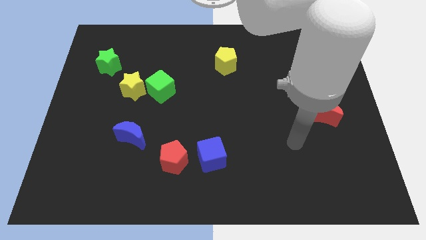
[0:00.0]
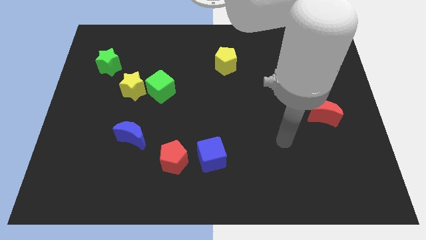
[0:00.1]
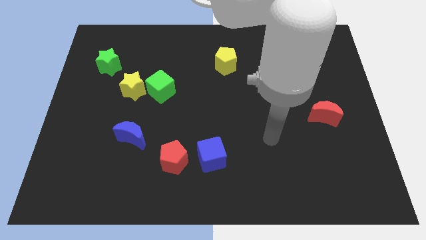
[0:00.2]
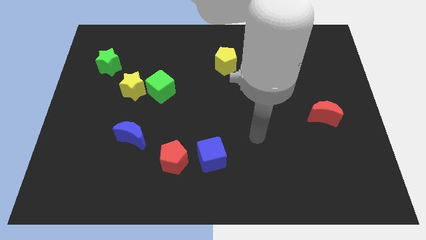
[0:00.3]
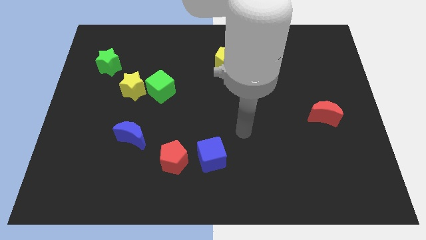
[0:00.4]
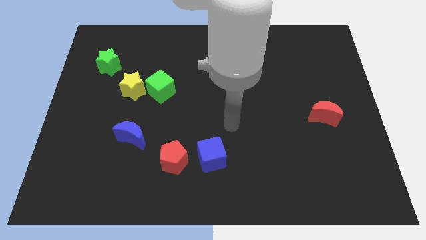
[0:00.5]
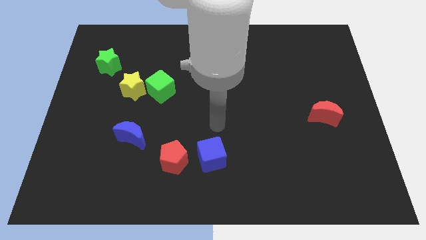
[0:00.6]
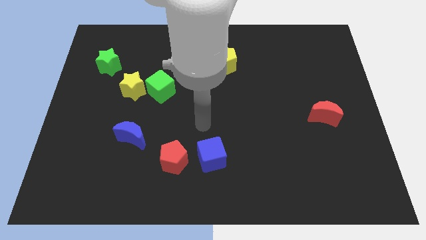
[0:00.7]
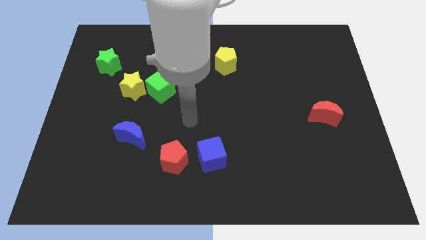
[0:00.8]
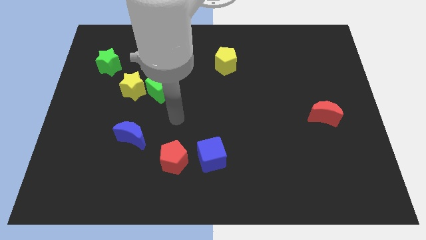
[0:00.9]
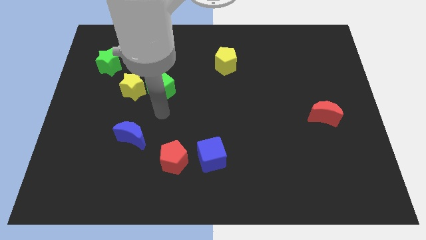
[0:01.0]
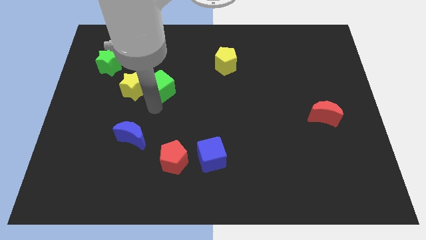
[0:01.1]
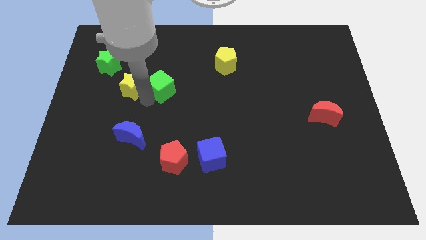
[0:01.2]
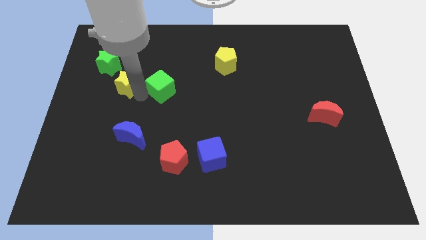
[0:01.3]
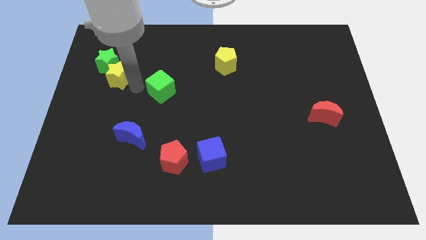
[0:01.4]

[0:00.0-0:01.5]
separate the green cube from the yellow star

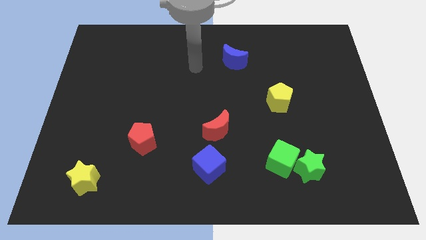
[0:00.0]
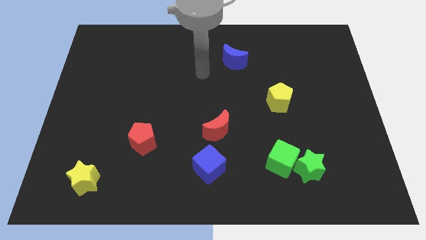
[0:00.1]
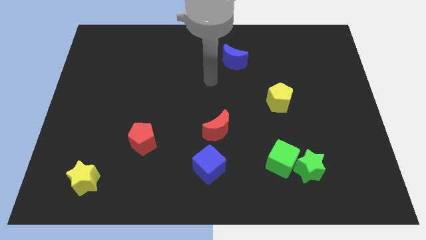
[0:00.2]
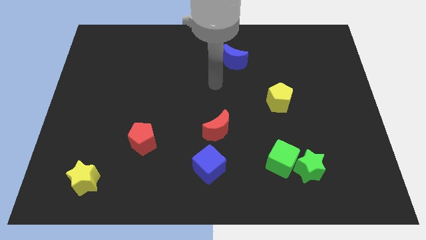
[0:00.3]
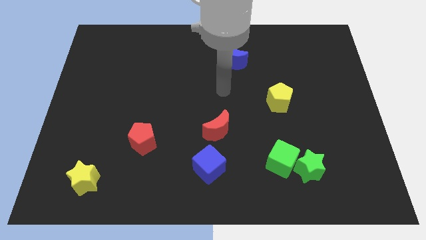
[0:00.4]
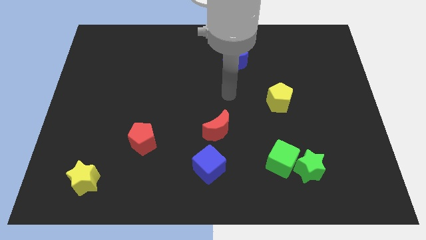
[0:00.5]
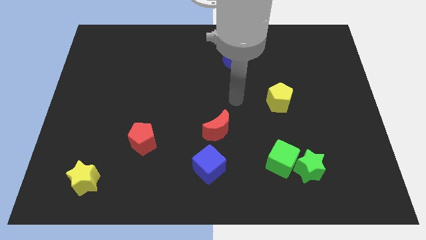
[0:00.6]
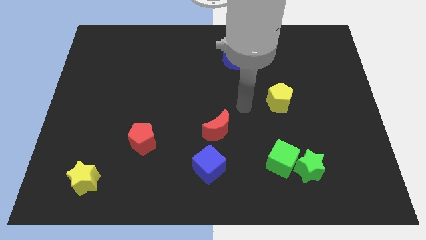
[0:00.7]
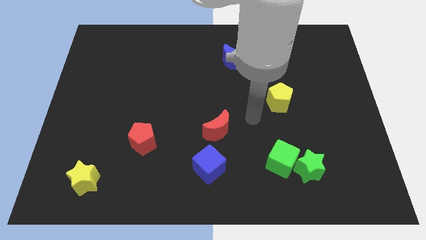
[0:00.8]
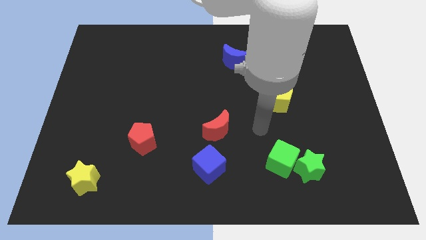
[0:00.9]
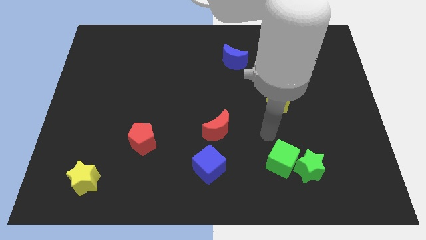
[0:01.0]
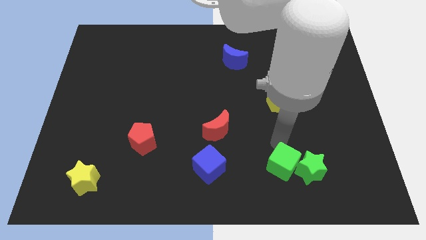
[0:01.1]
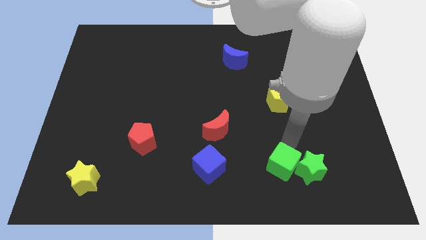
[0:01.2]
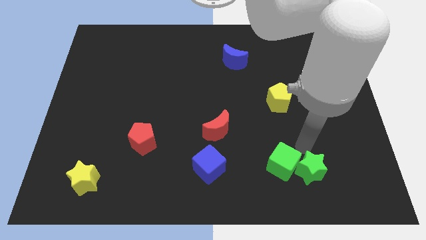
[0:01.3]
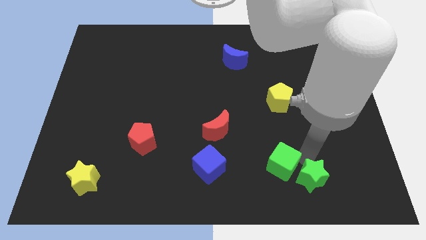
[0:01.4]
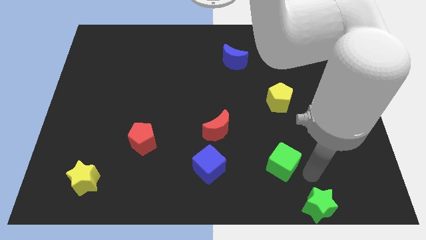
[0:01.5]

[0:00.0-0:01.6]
separate the green cube from the green star

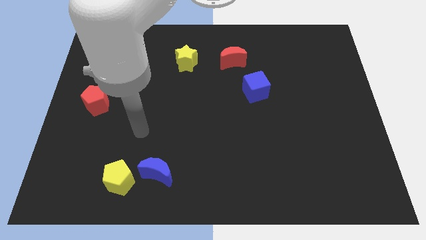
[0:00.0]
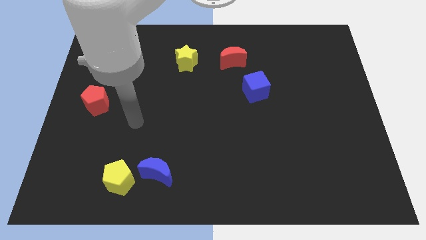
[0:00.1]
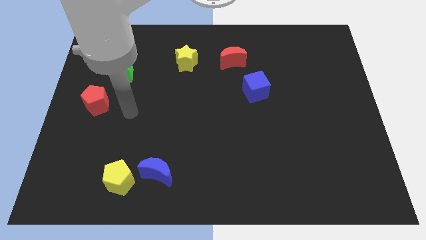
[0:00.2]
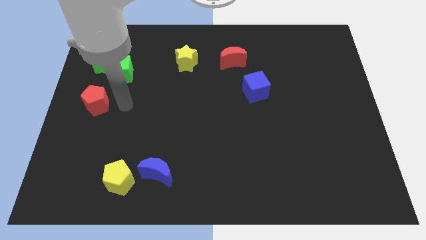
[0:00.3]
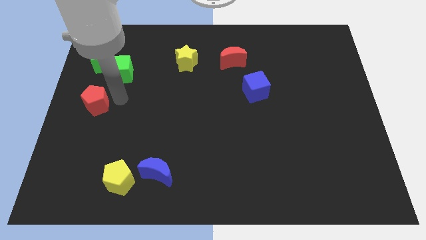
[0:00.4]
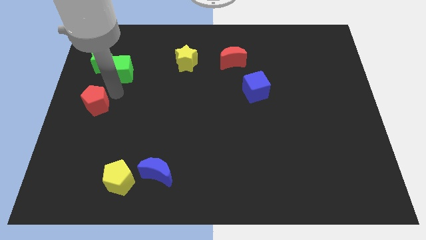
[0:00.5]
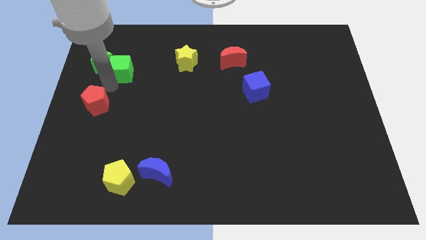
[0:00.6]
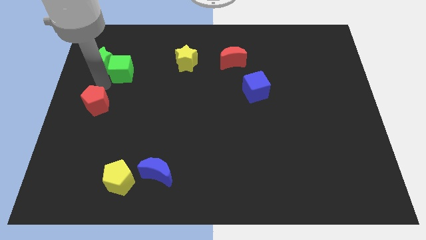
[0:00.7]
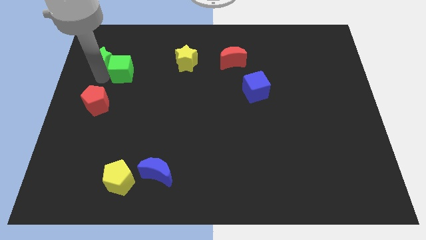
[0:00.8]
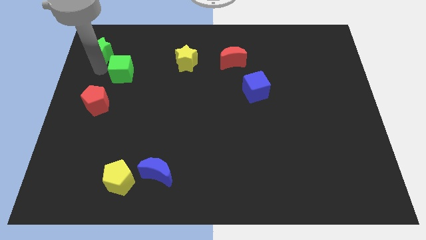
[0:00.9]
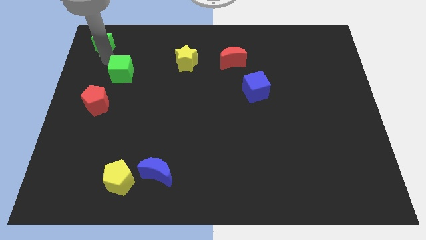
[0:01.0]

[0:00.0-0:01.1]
pull the green cube apart from the green star

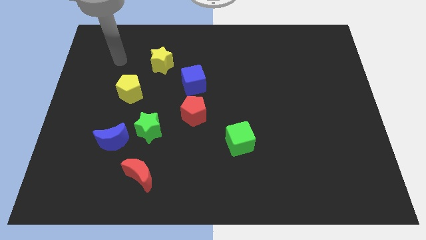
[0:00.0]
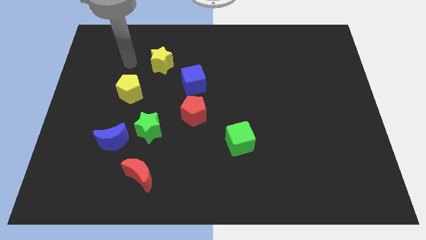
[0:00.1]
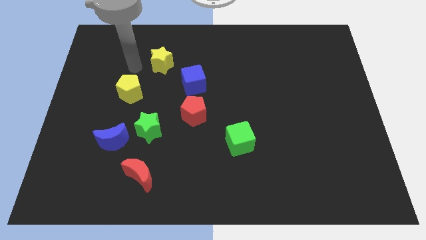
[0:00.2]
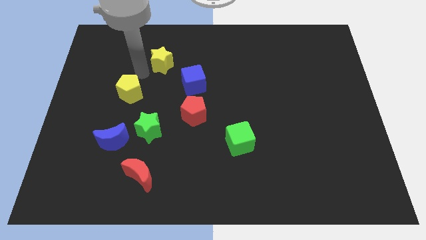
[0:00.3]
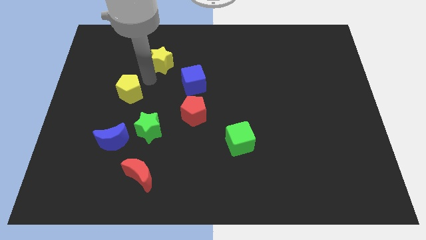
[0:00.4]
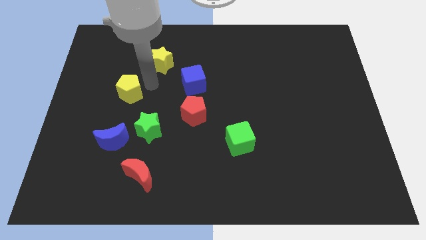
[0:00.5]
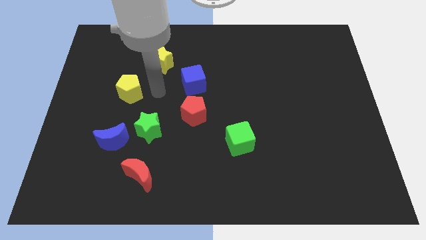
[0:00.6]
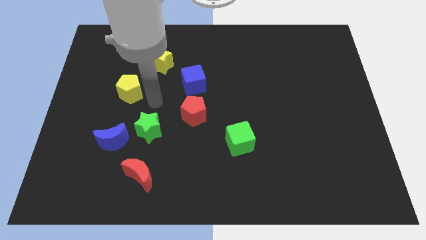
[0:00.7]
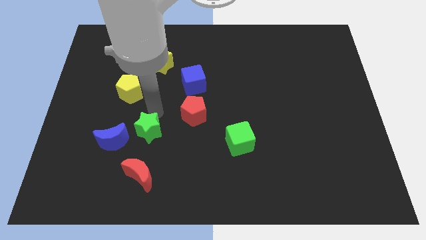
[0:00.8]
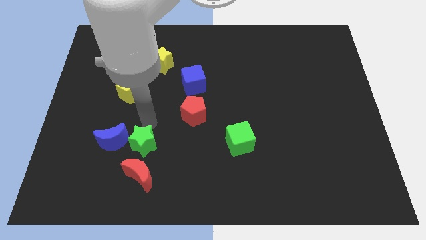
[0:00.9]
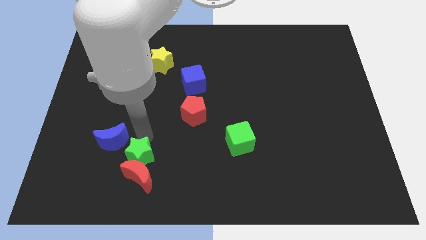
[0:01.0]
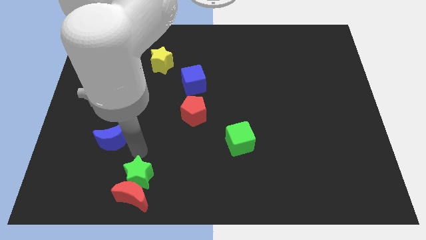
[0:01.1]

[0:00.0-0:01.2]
move the blue moon away from the green star

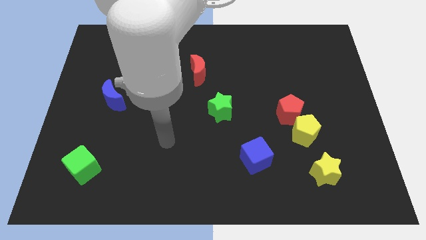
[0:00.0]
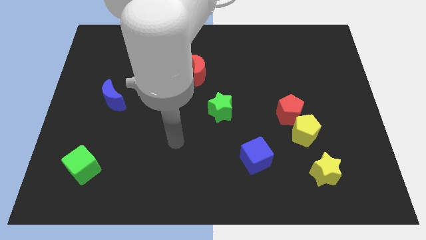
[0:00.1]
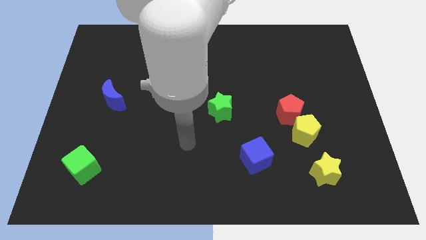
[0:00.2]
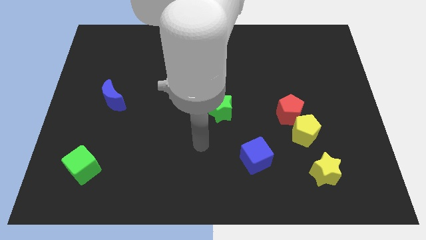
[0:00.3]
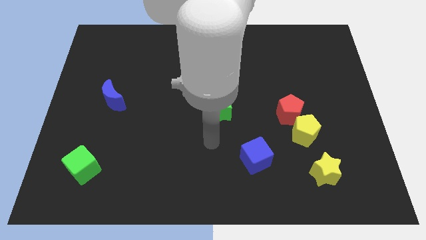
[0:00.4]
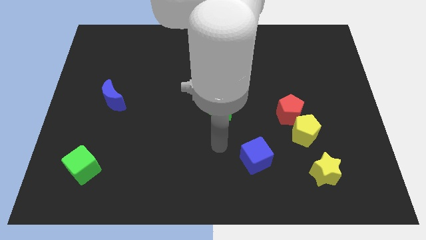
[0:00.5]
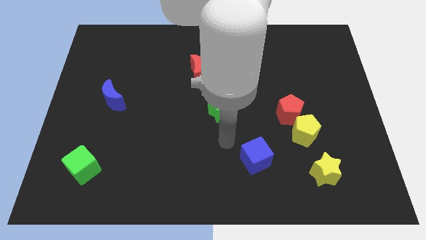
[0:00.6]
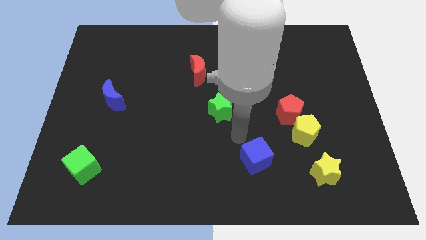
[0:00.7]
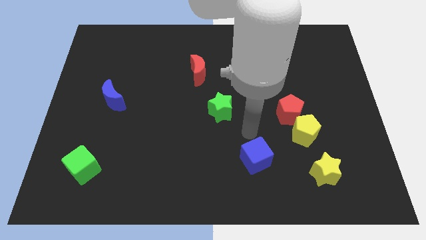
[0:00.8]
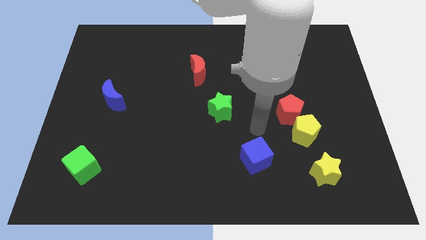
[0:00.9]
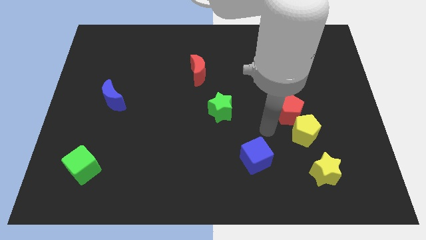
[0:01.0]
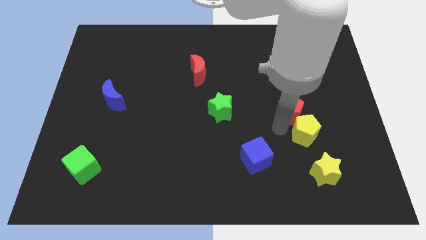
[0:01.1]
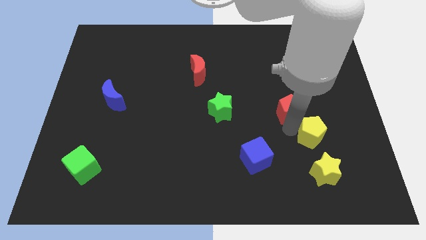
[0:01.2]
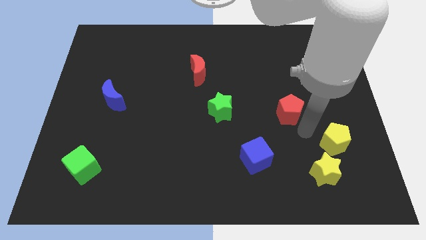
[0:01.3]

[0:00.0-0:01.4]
separate the red pentagon from the yellow pentagon

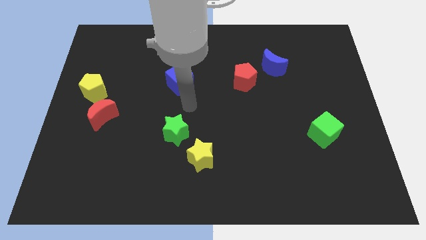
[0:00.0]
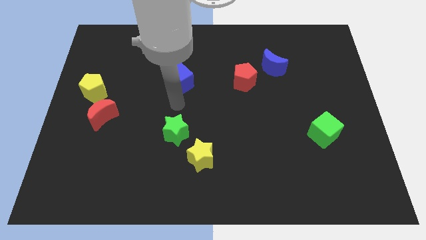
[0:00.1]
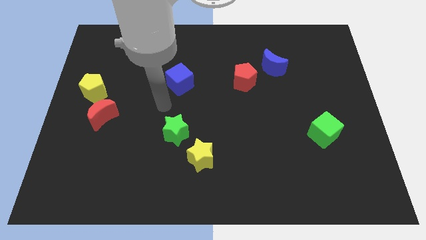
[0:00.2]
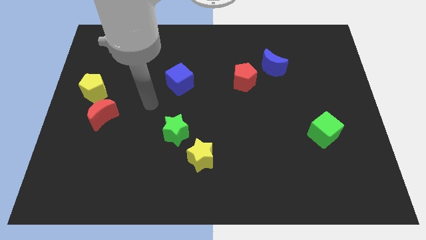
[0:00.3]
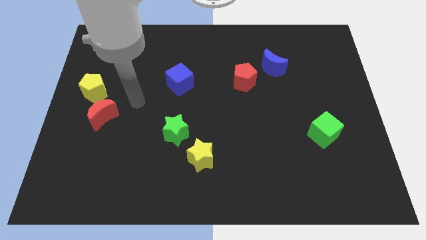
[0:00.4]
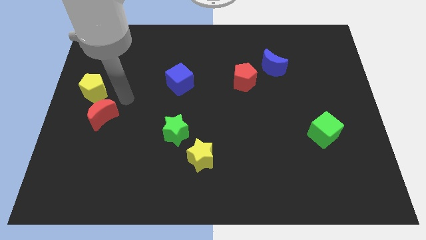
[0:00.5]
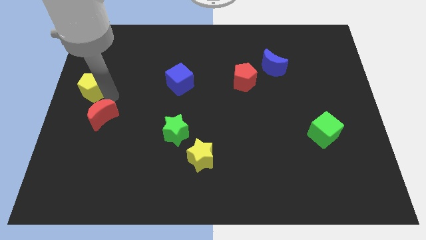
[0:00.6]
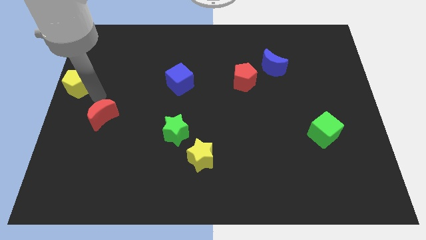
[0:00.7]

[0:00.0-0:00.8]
separate the red moon from the yellow pentagon

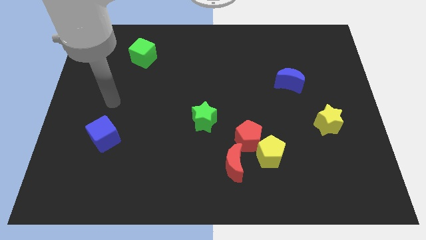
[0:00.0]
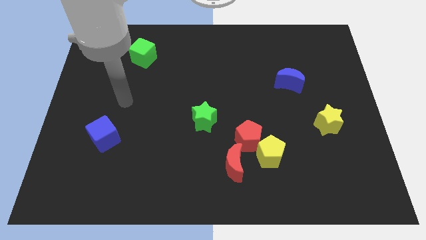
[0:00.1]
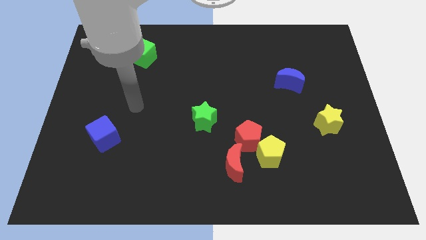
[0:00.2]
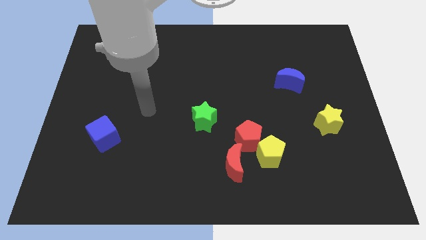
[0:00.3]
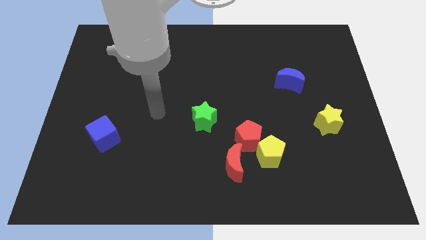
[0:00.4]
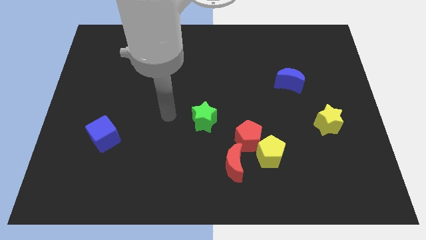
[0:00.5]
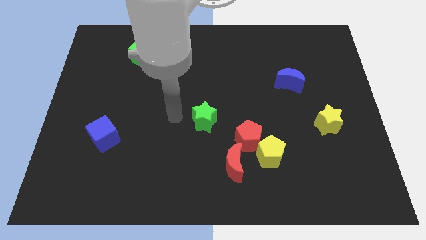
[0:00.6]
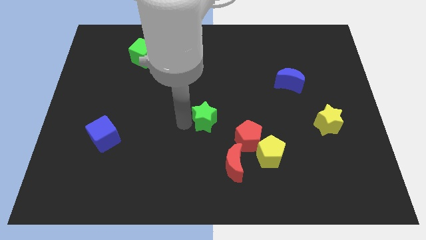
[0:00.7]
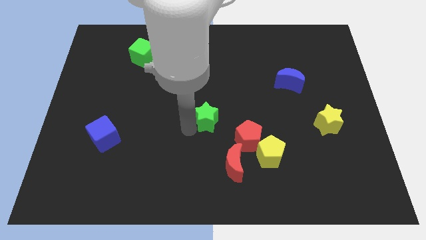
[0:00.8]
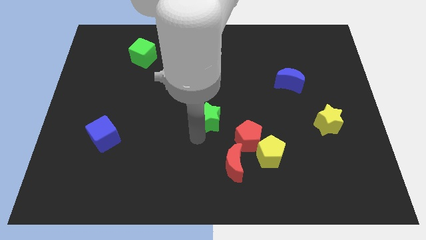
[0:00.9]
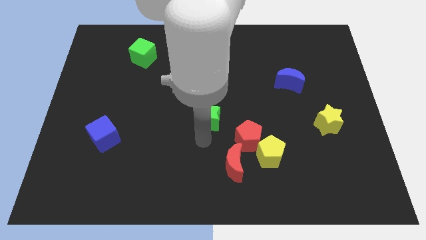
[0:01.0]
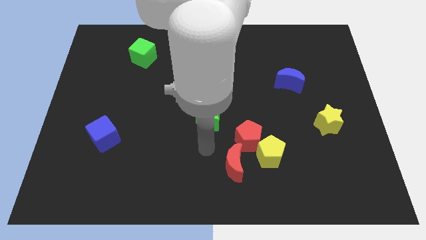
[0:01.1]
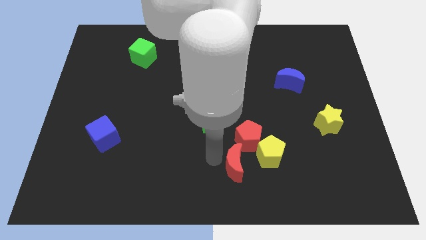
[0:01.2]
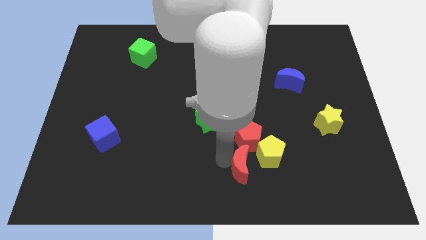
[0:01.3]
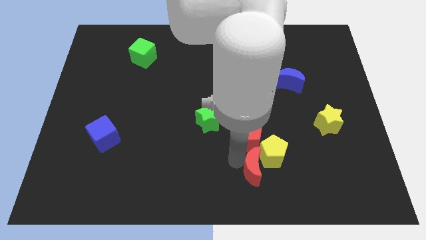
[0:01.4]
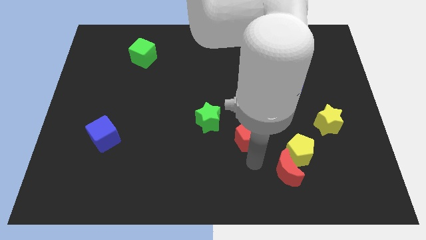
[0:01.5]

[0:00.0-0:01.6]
move the red pentagon away from the yellow pentagon and red moon
